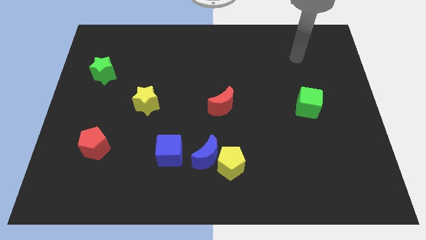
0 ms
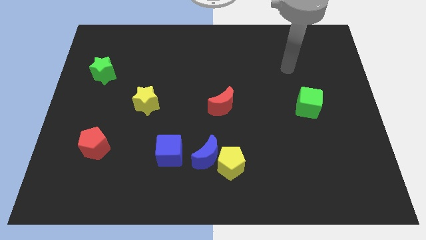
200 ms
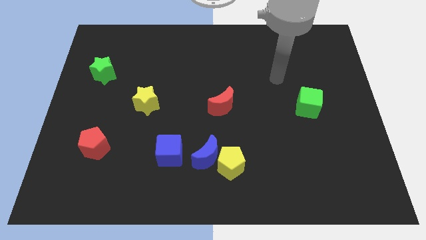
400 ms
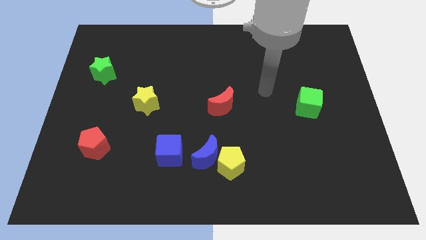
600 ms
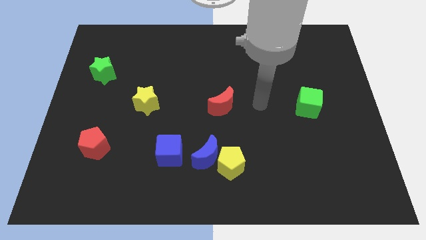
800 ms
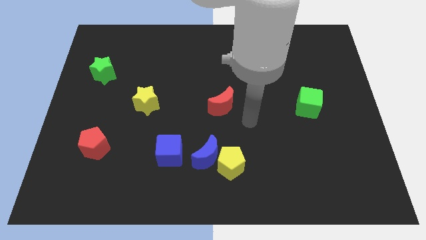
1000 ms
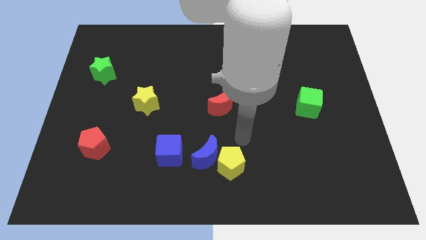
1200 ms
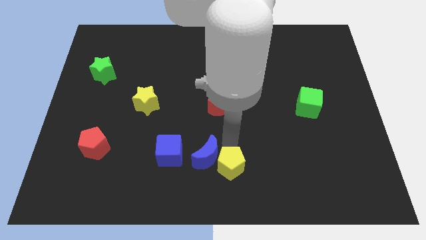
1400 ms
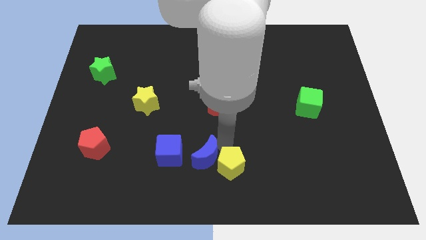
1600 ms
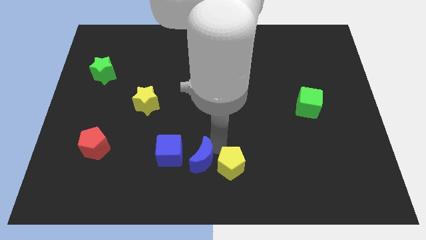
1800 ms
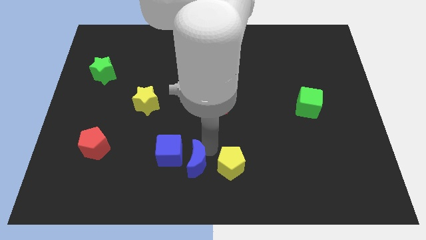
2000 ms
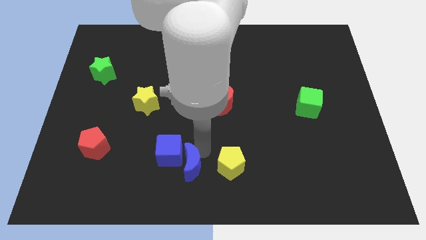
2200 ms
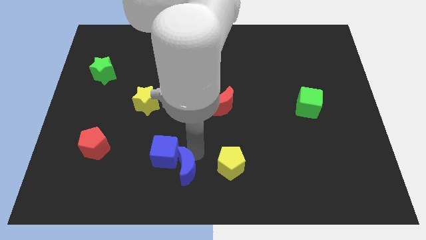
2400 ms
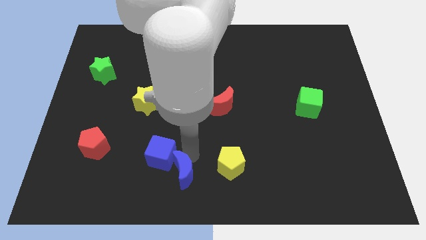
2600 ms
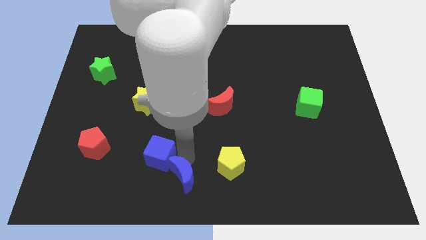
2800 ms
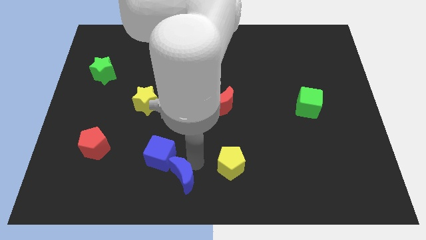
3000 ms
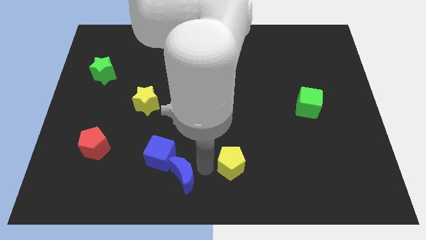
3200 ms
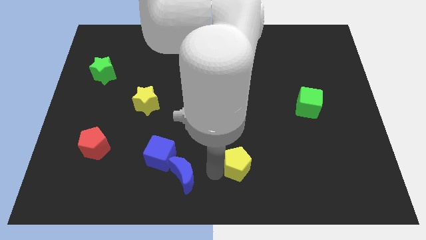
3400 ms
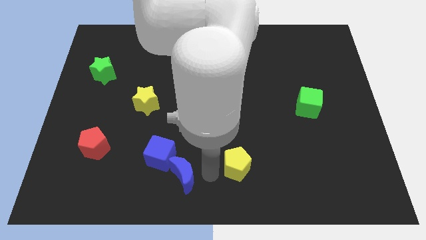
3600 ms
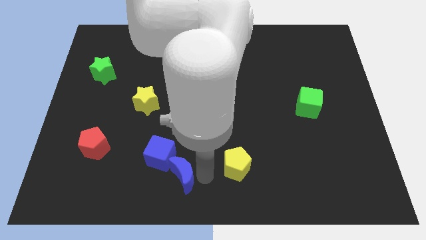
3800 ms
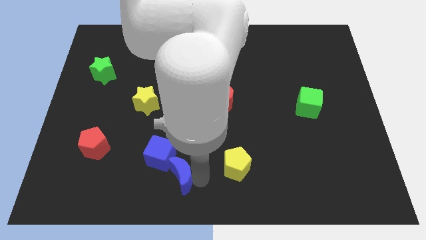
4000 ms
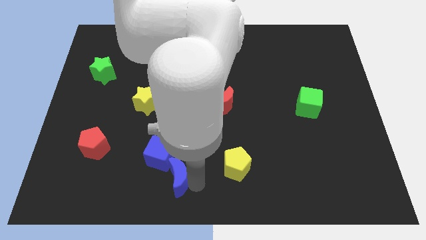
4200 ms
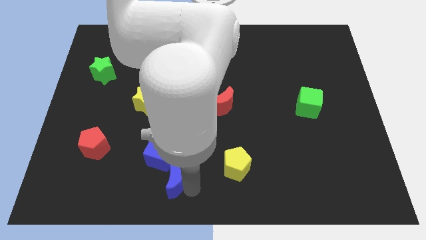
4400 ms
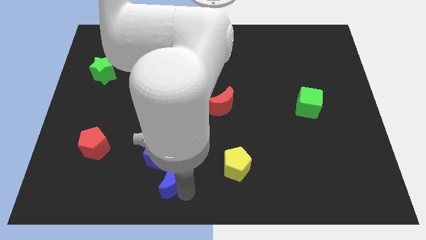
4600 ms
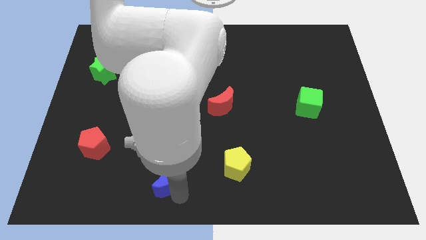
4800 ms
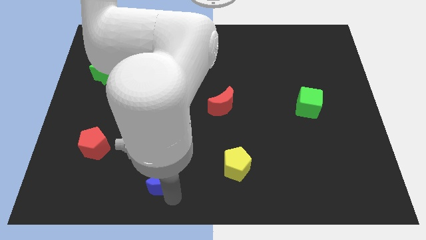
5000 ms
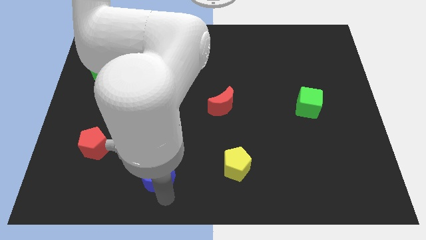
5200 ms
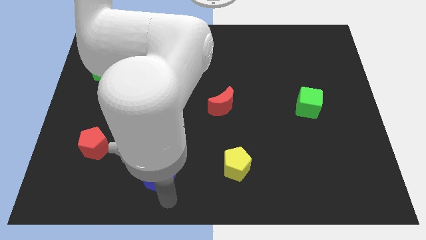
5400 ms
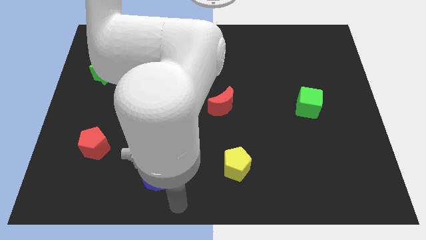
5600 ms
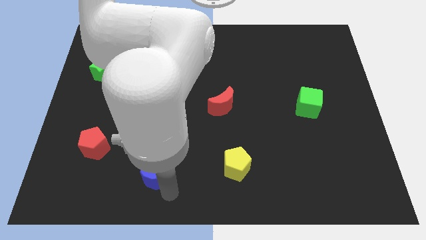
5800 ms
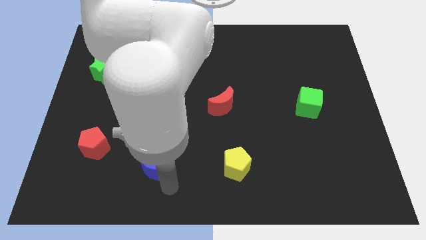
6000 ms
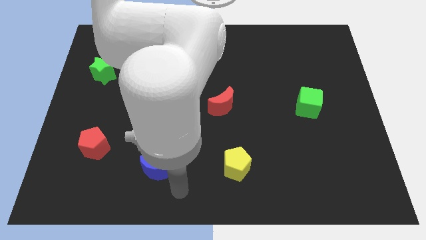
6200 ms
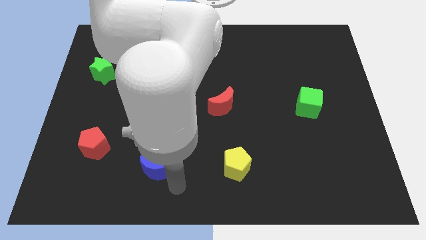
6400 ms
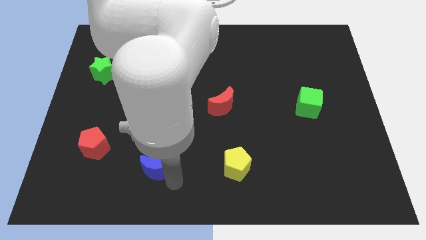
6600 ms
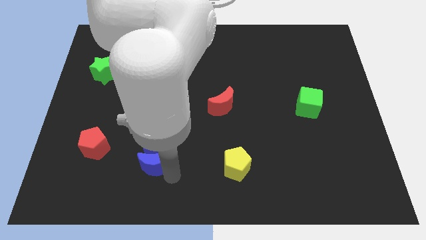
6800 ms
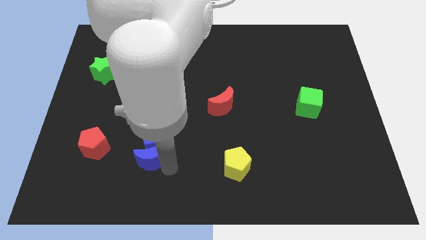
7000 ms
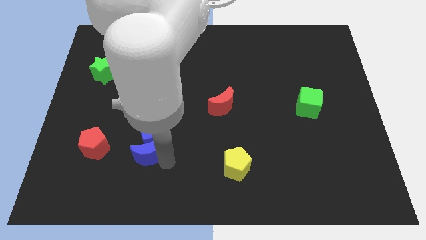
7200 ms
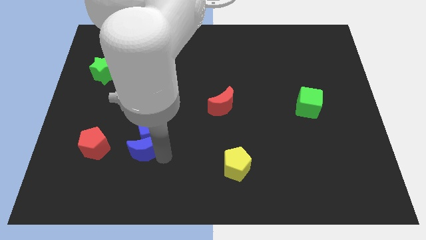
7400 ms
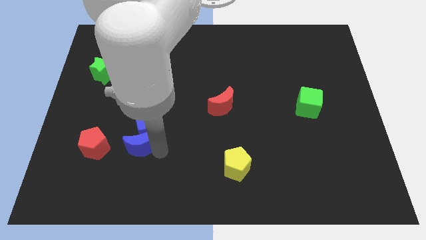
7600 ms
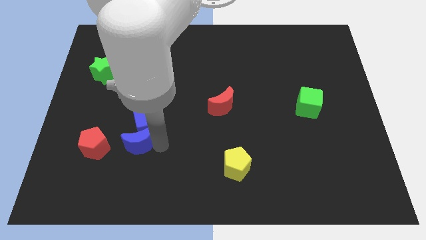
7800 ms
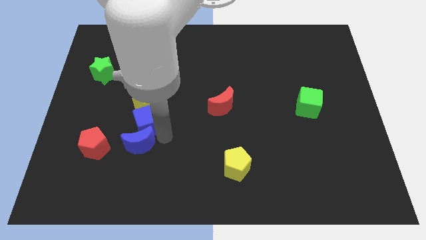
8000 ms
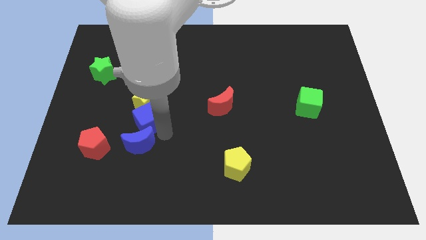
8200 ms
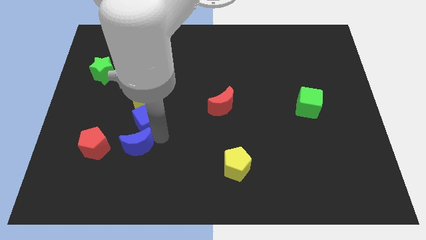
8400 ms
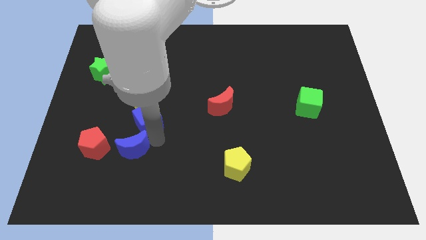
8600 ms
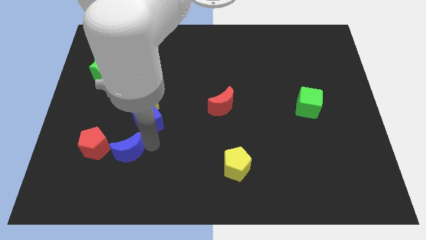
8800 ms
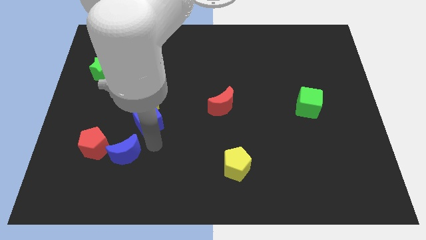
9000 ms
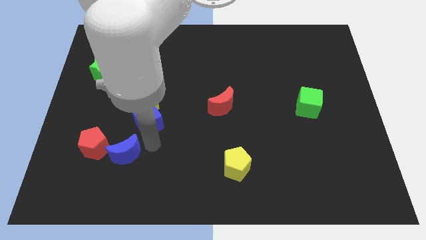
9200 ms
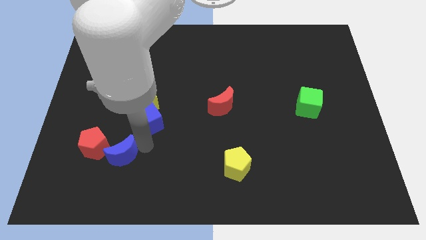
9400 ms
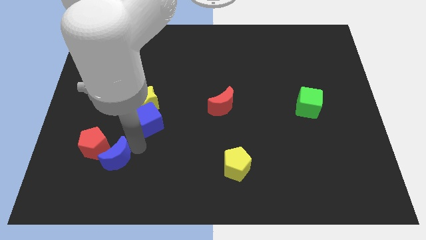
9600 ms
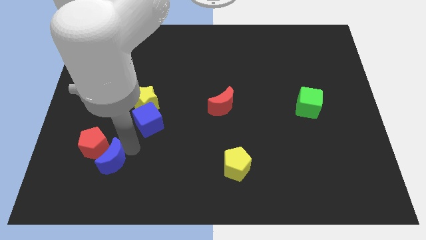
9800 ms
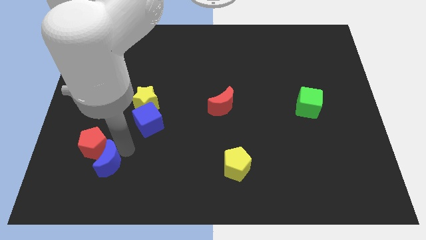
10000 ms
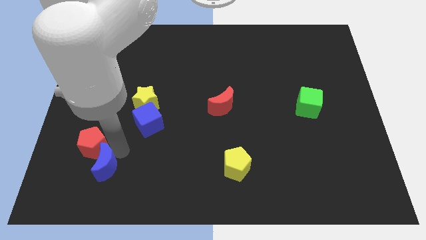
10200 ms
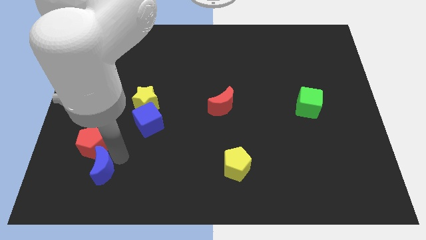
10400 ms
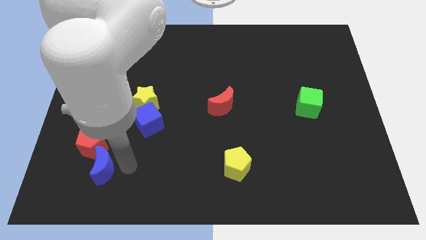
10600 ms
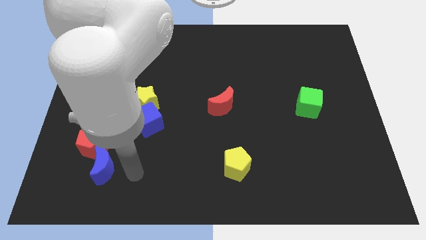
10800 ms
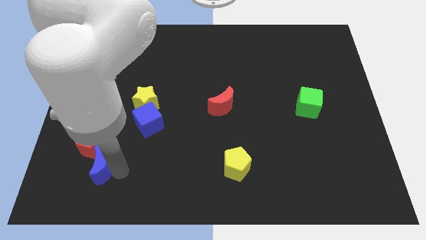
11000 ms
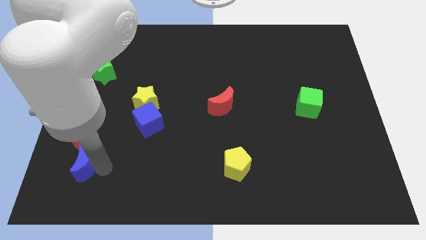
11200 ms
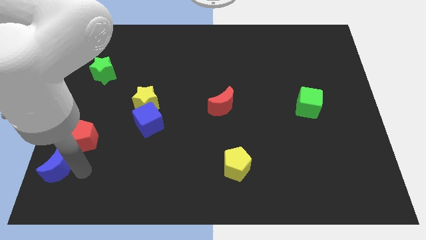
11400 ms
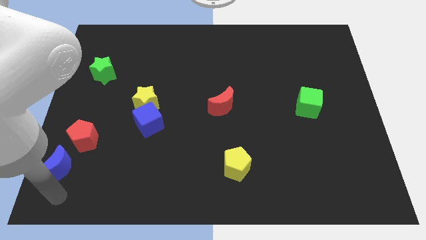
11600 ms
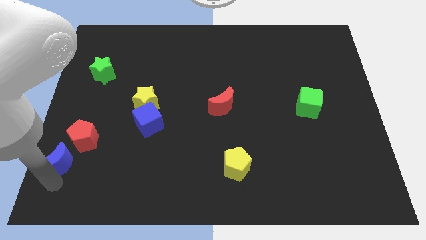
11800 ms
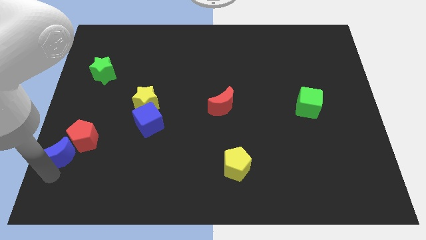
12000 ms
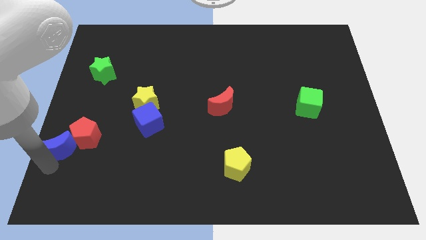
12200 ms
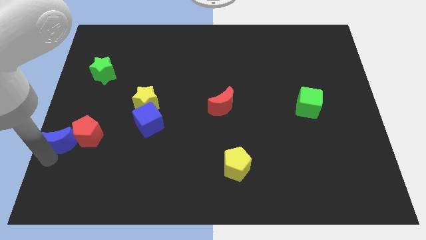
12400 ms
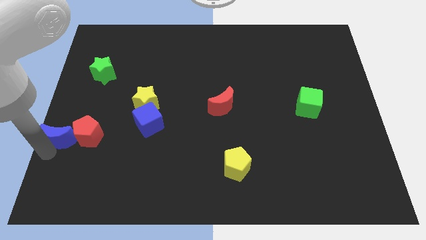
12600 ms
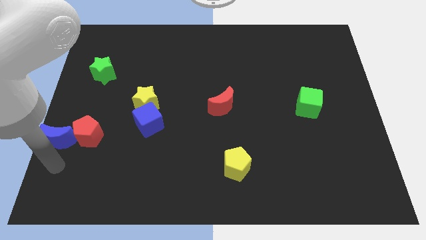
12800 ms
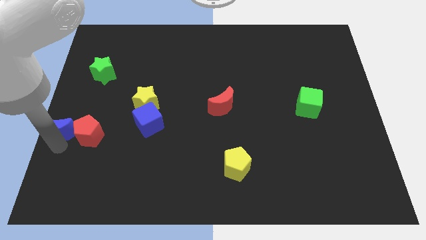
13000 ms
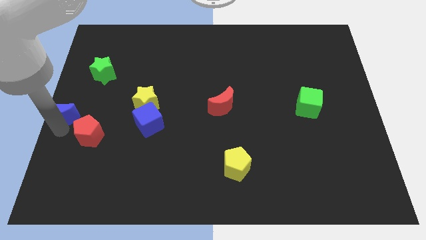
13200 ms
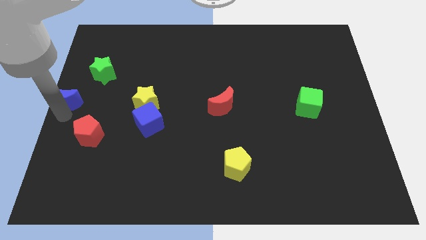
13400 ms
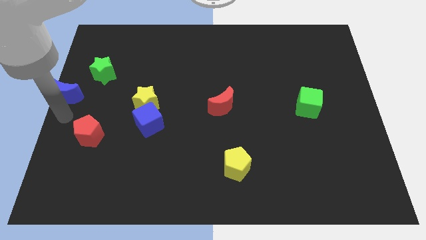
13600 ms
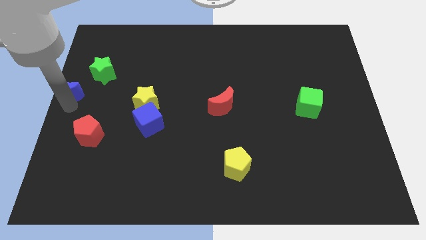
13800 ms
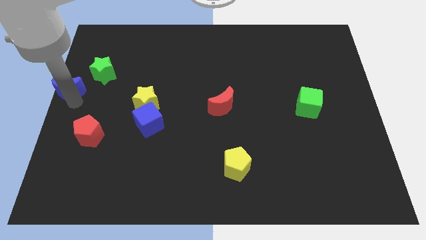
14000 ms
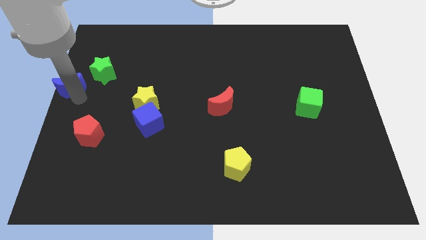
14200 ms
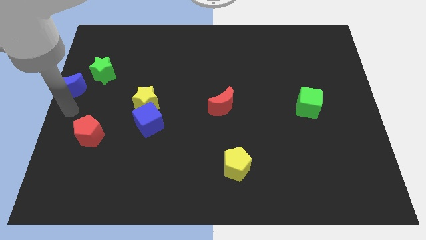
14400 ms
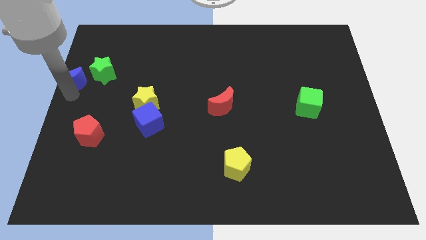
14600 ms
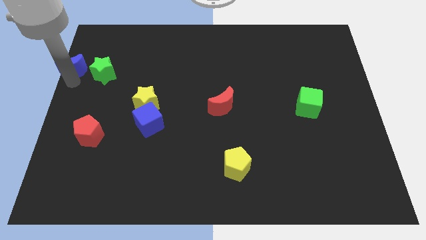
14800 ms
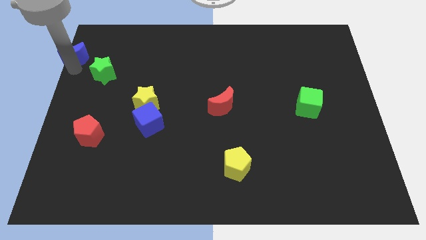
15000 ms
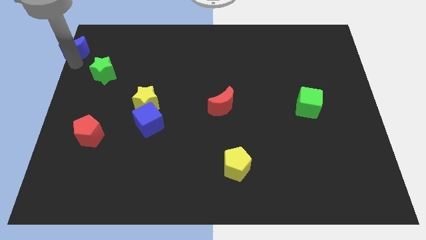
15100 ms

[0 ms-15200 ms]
push the blue moon to the top left corner

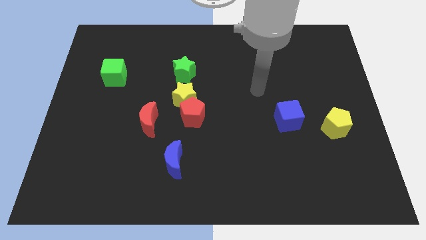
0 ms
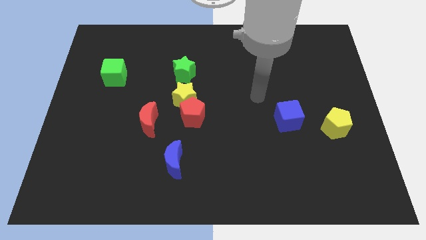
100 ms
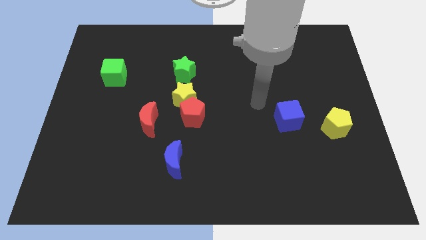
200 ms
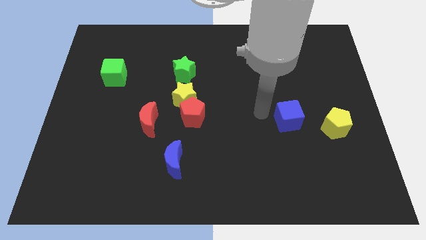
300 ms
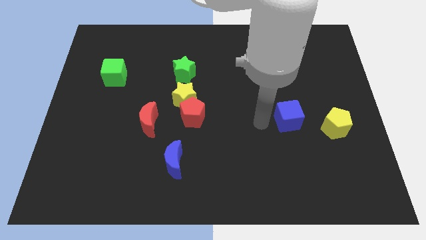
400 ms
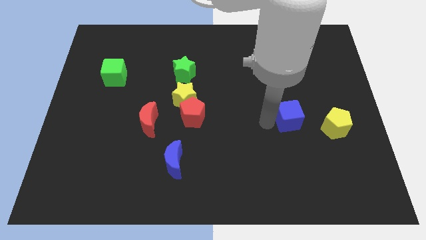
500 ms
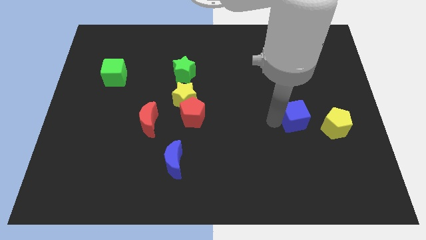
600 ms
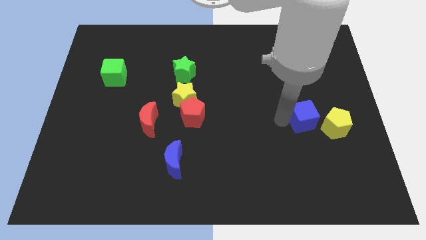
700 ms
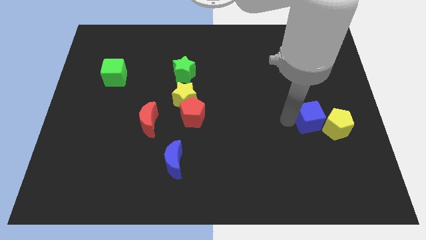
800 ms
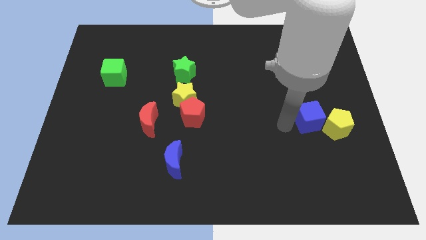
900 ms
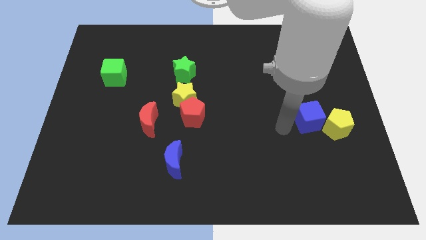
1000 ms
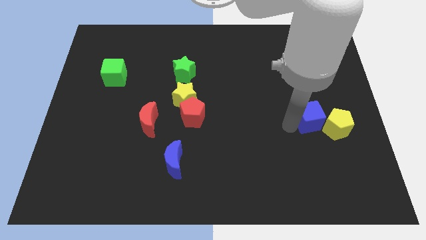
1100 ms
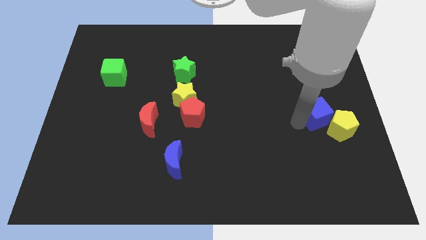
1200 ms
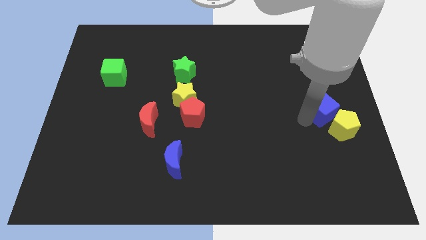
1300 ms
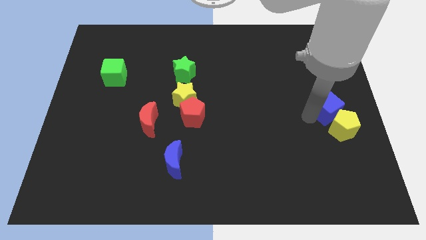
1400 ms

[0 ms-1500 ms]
push the blue cube to the right side
